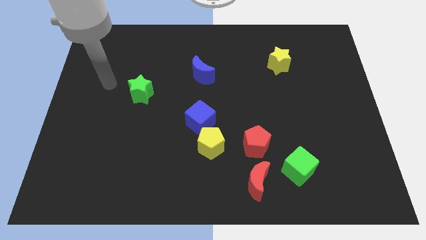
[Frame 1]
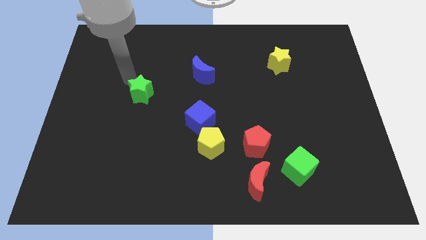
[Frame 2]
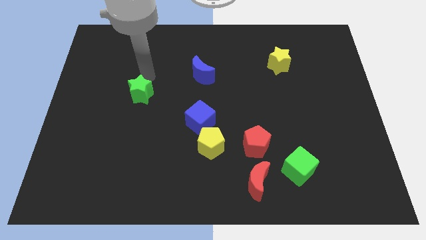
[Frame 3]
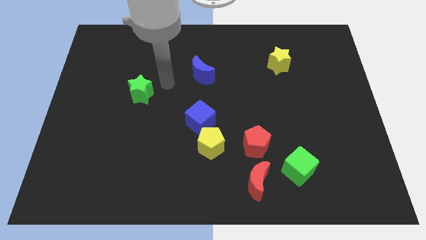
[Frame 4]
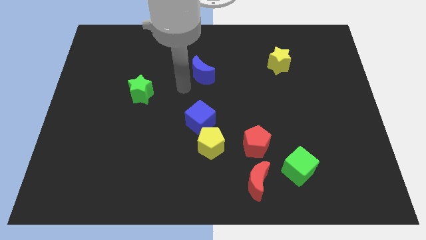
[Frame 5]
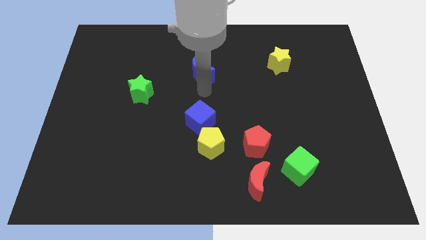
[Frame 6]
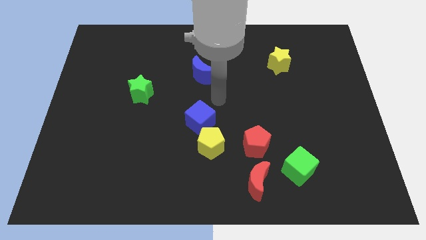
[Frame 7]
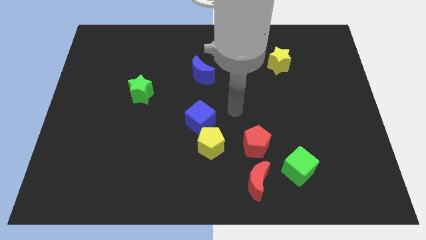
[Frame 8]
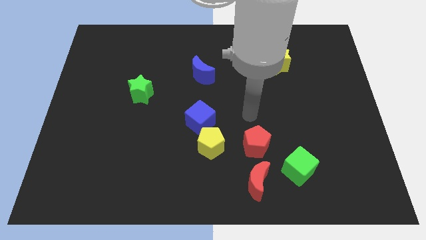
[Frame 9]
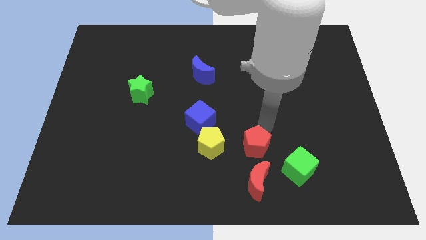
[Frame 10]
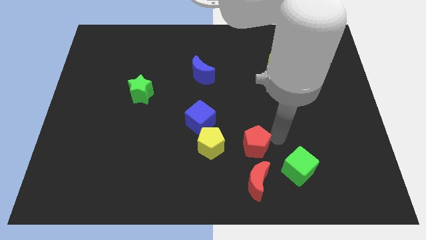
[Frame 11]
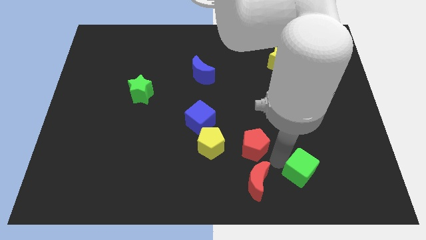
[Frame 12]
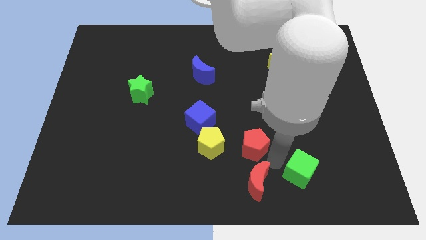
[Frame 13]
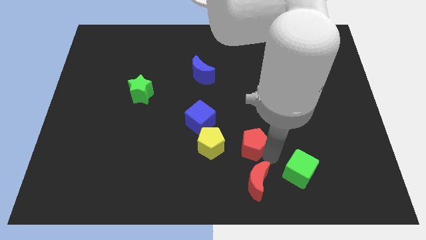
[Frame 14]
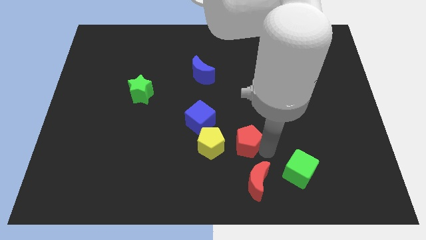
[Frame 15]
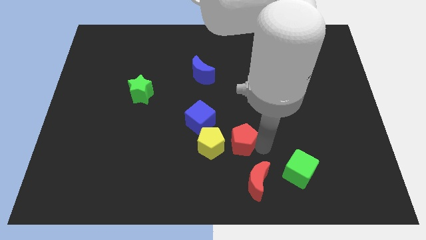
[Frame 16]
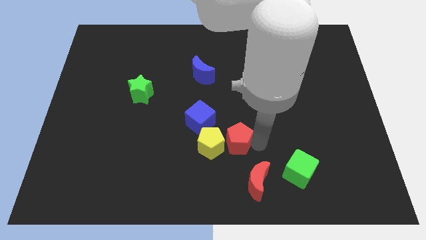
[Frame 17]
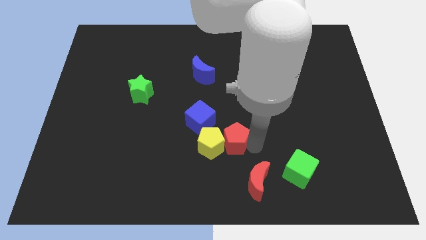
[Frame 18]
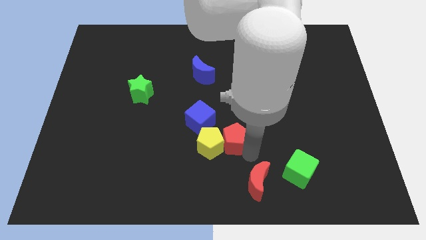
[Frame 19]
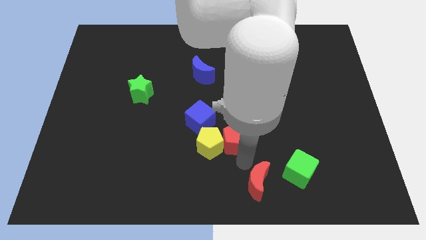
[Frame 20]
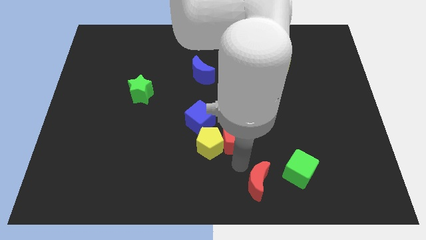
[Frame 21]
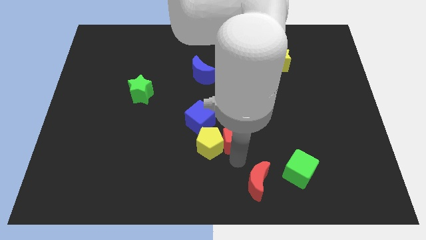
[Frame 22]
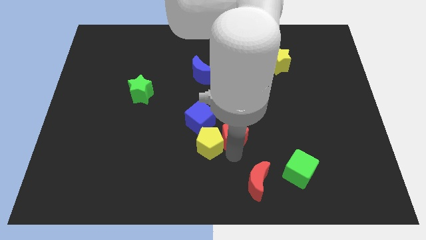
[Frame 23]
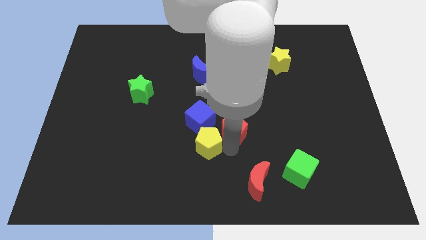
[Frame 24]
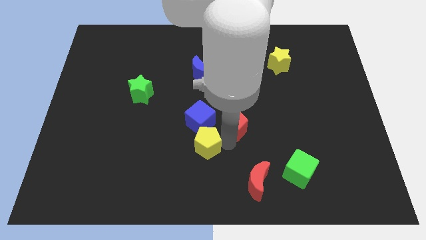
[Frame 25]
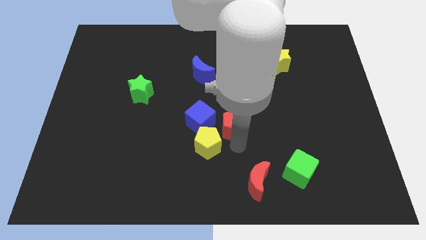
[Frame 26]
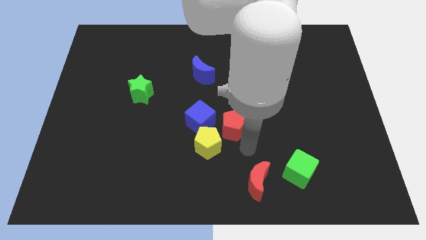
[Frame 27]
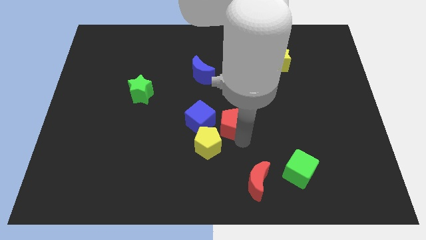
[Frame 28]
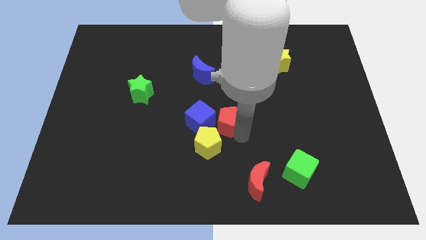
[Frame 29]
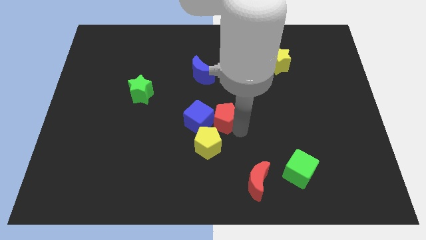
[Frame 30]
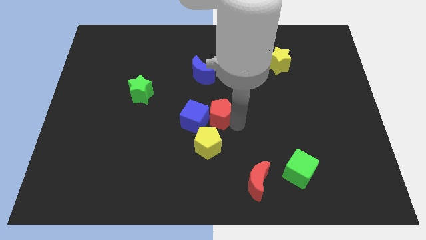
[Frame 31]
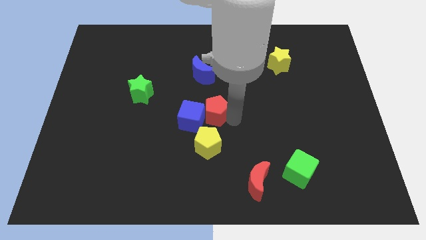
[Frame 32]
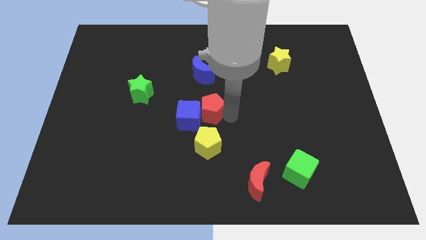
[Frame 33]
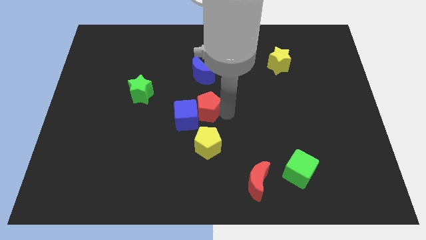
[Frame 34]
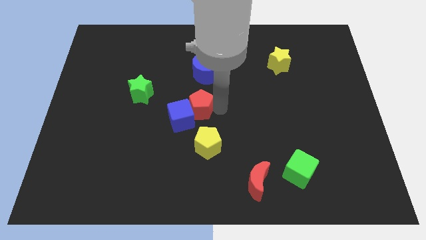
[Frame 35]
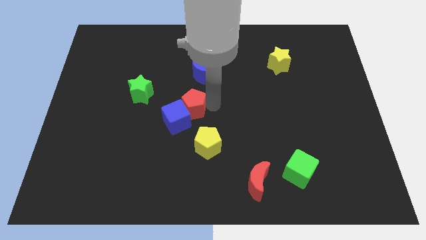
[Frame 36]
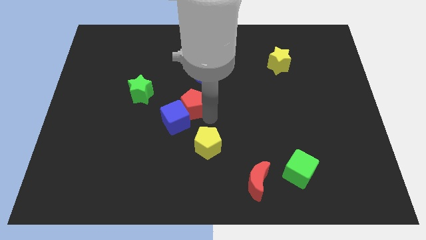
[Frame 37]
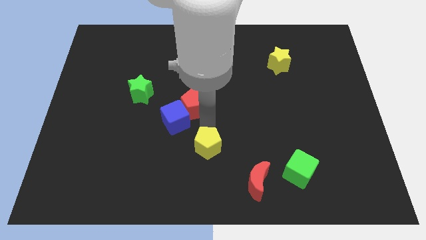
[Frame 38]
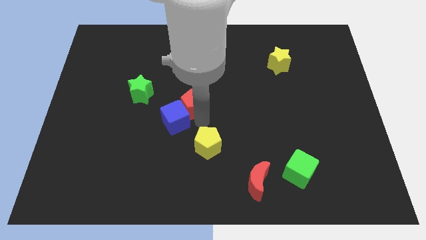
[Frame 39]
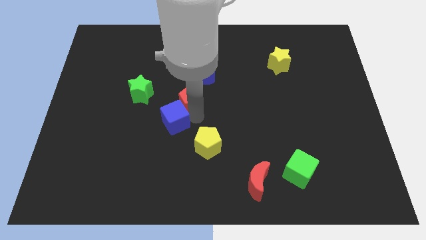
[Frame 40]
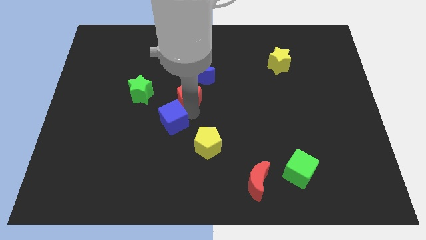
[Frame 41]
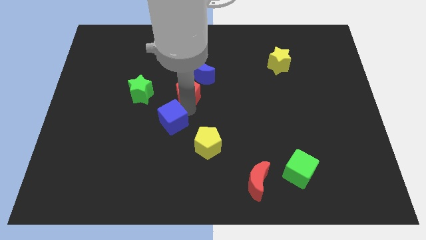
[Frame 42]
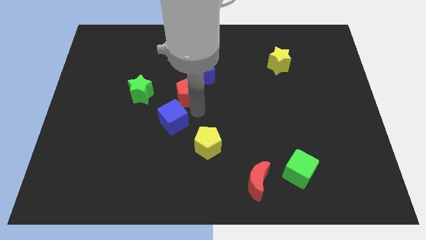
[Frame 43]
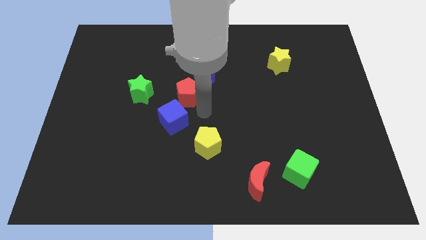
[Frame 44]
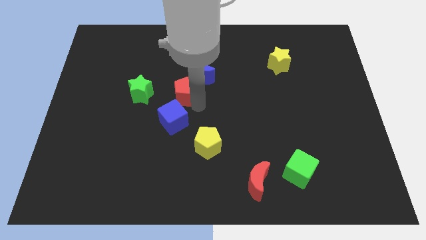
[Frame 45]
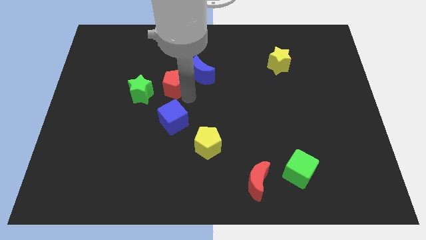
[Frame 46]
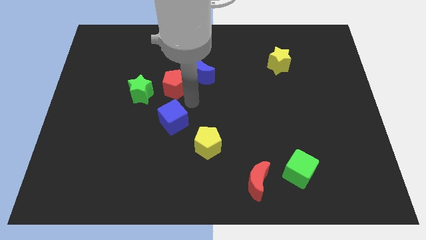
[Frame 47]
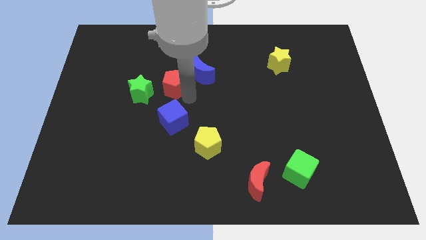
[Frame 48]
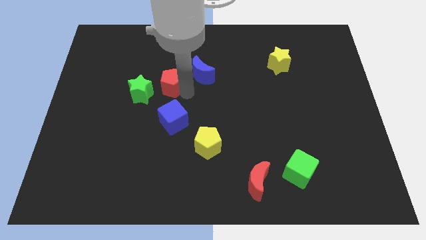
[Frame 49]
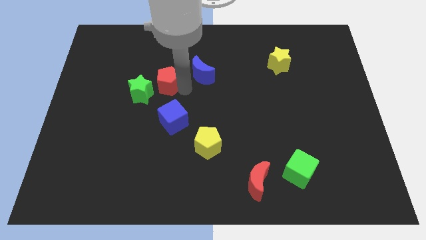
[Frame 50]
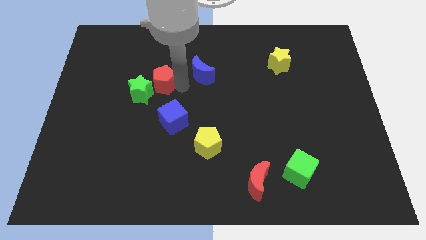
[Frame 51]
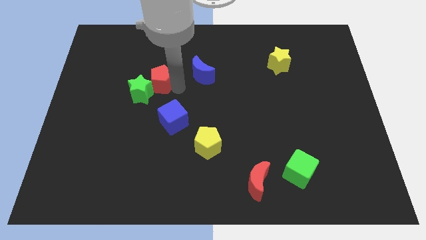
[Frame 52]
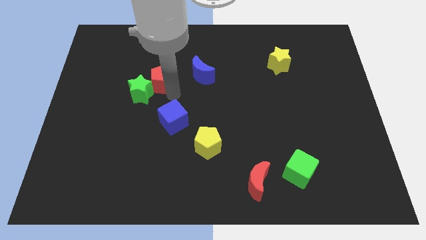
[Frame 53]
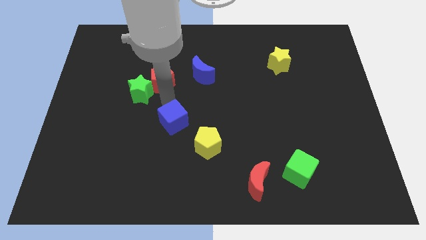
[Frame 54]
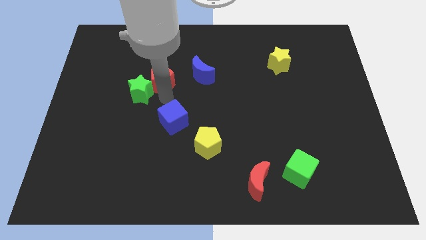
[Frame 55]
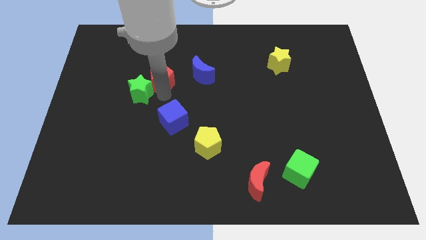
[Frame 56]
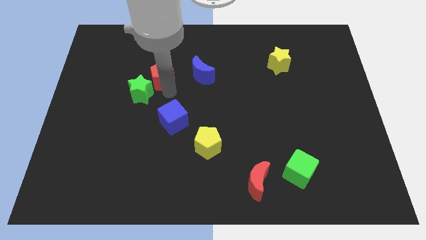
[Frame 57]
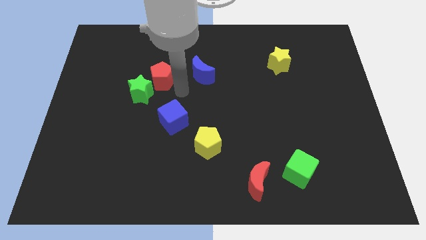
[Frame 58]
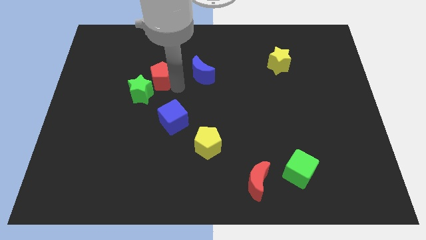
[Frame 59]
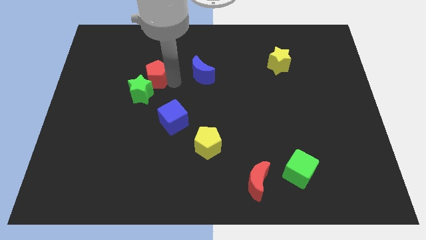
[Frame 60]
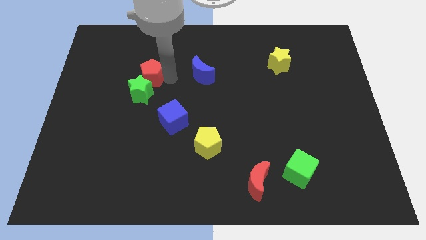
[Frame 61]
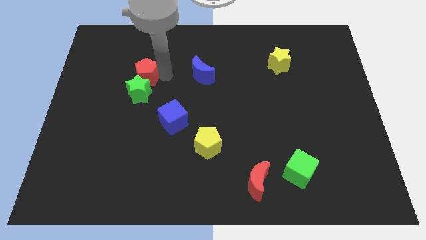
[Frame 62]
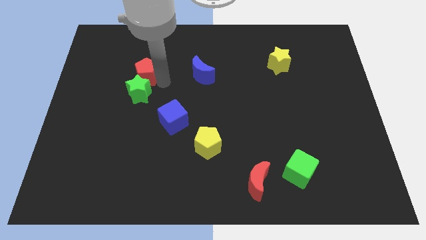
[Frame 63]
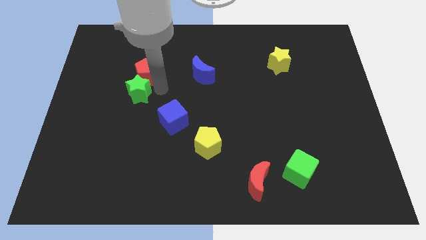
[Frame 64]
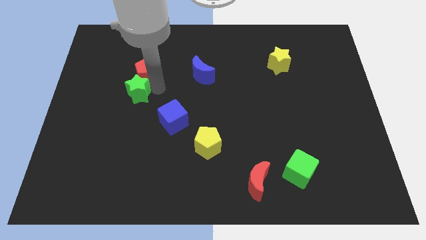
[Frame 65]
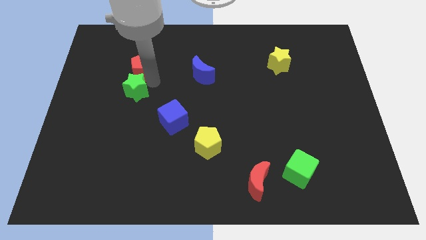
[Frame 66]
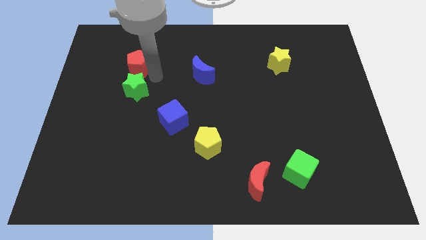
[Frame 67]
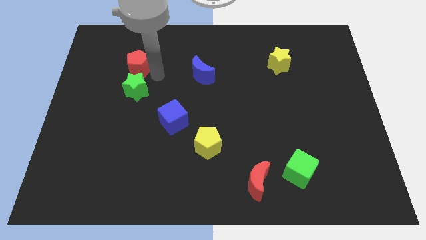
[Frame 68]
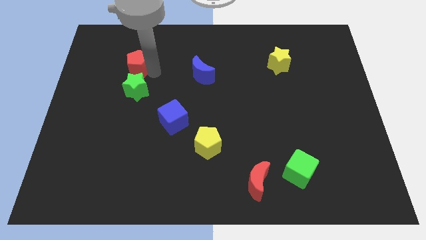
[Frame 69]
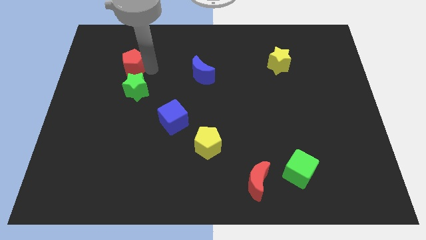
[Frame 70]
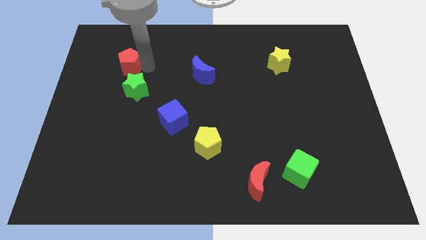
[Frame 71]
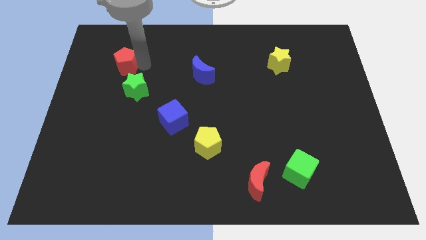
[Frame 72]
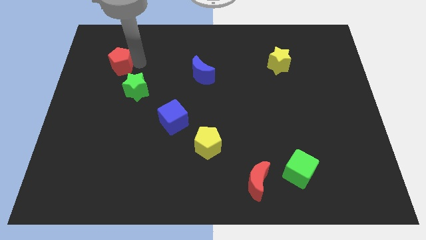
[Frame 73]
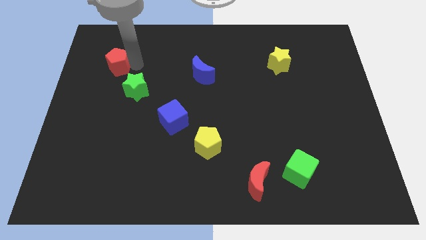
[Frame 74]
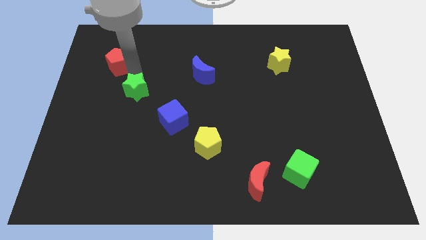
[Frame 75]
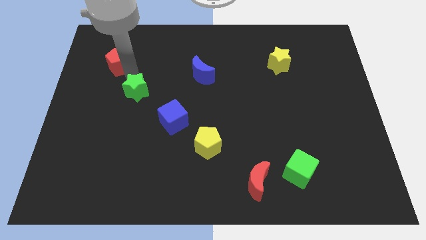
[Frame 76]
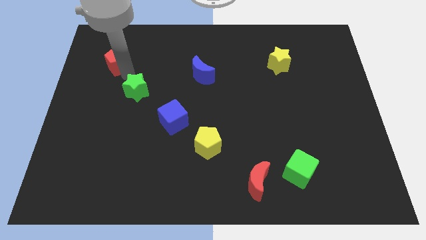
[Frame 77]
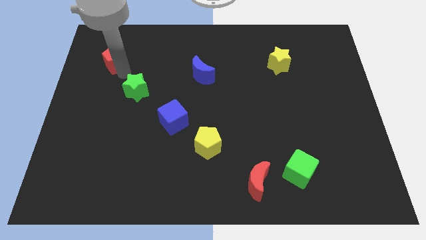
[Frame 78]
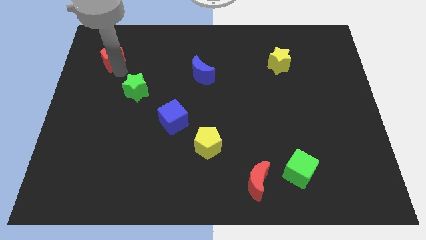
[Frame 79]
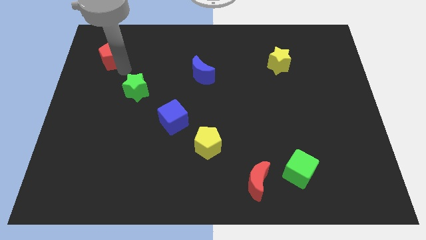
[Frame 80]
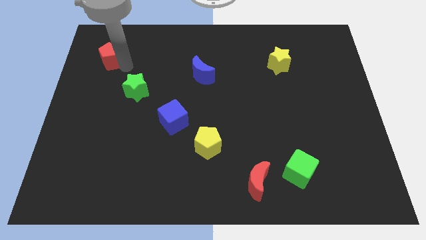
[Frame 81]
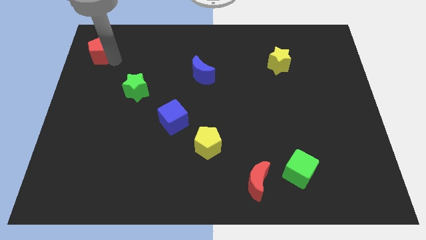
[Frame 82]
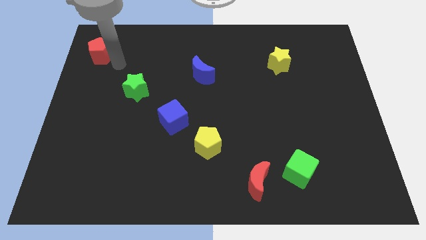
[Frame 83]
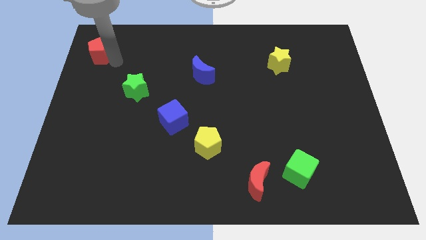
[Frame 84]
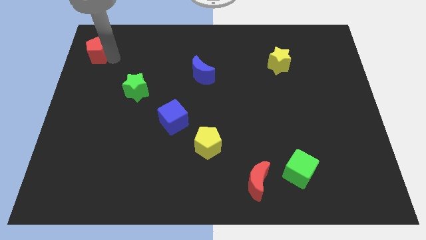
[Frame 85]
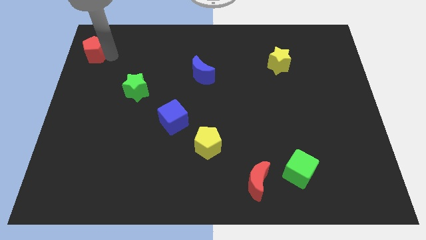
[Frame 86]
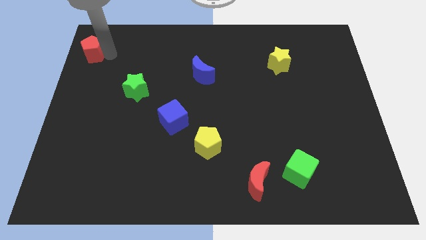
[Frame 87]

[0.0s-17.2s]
put the red pentagon to the top left corner
